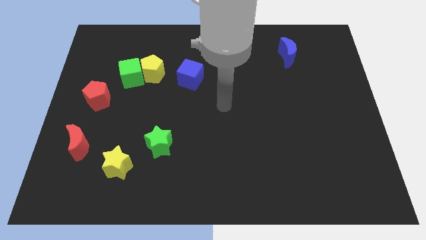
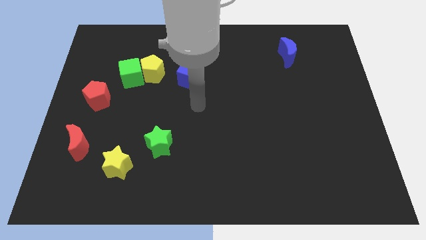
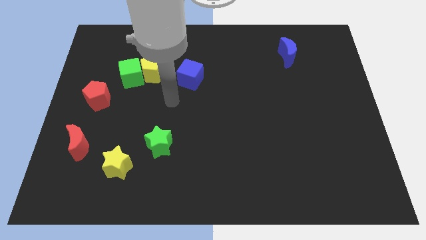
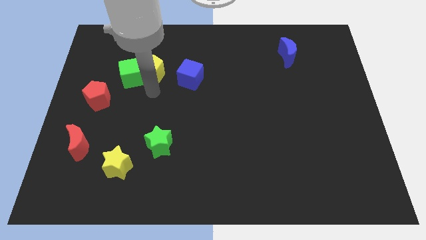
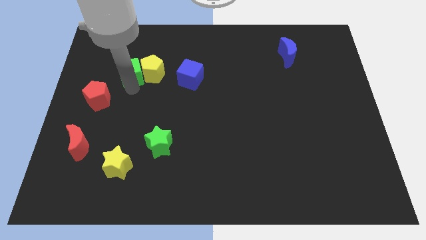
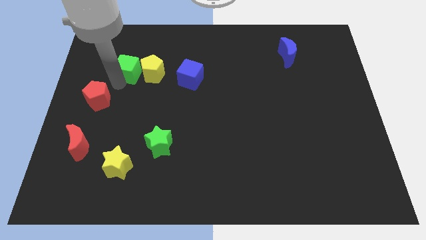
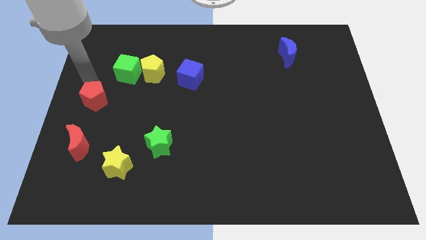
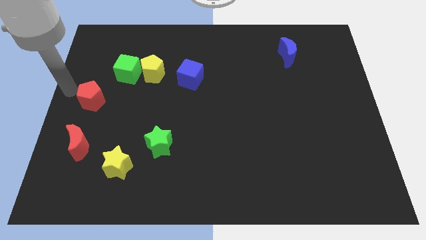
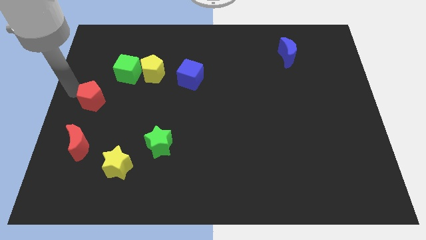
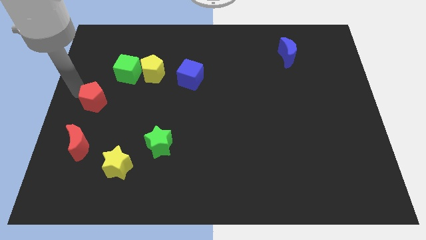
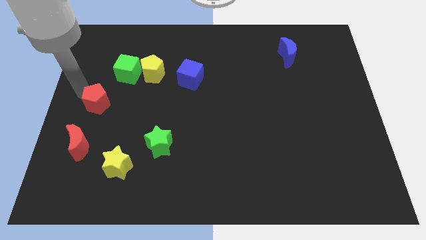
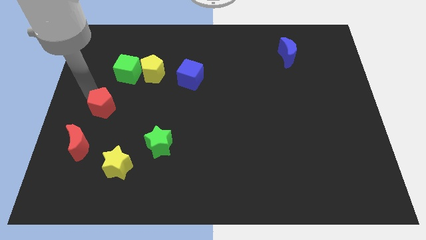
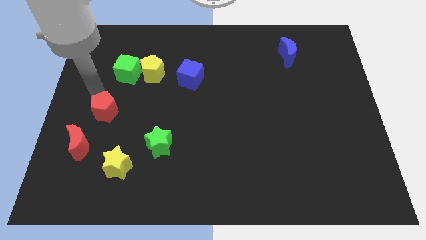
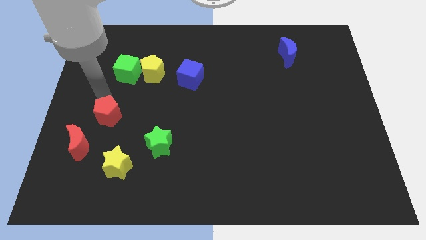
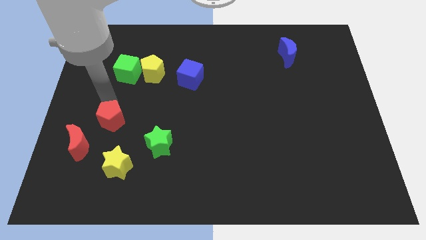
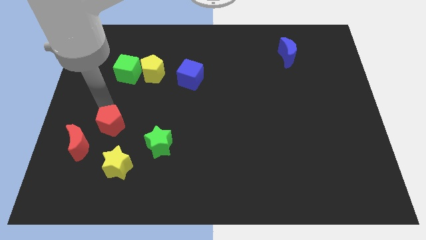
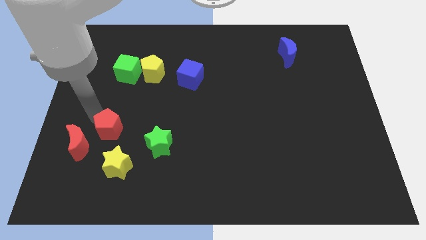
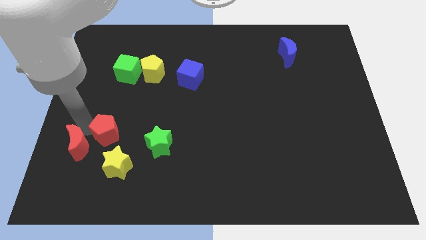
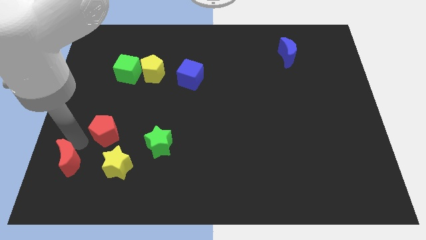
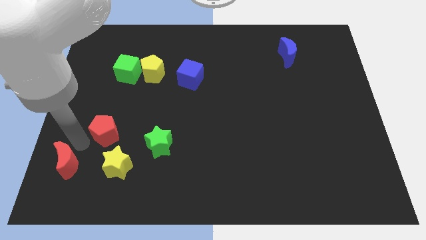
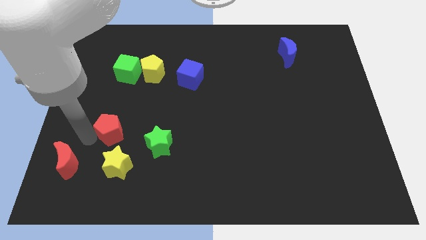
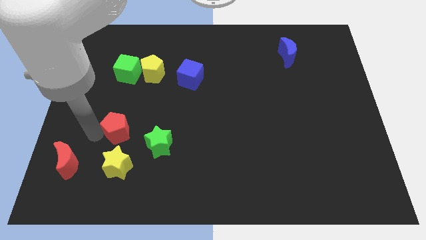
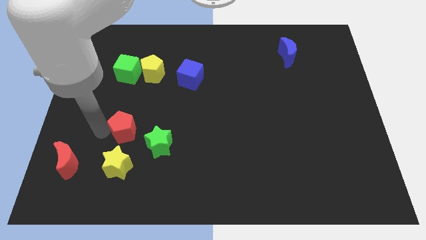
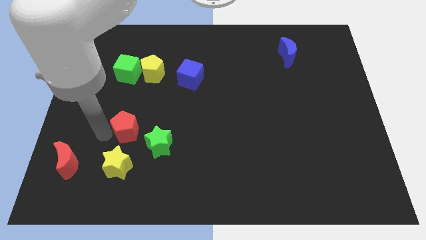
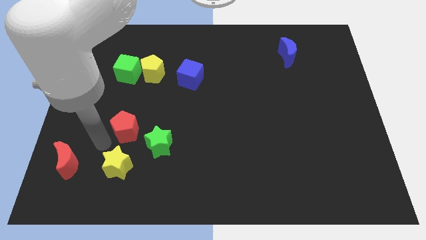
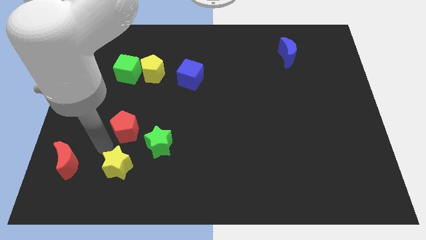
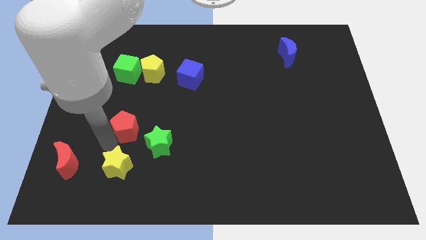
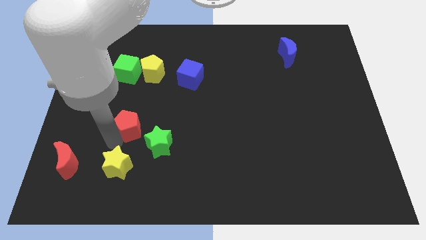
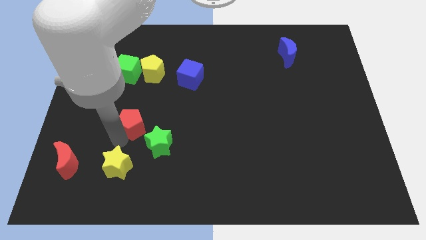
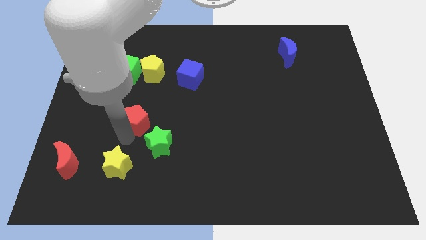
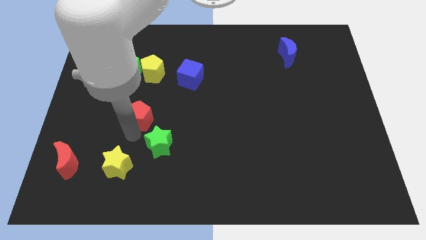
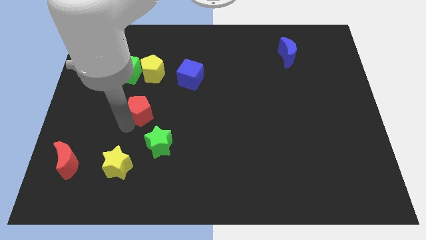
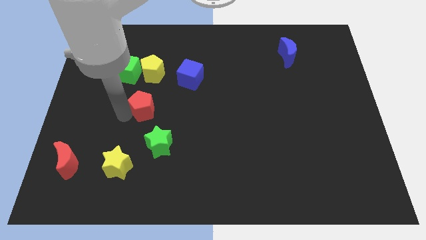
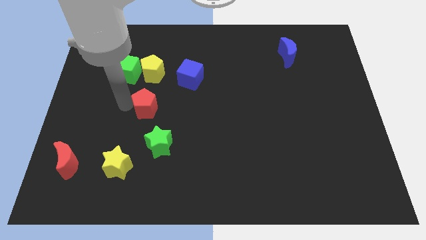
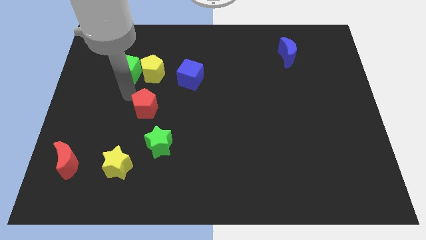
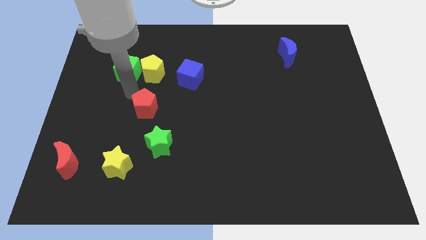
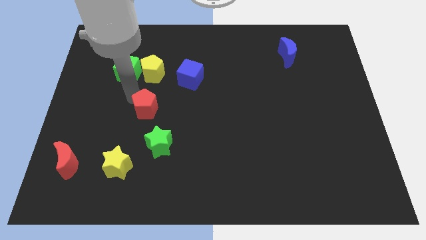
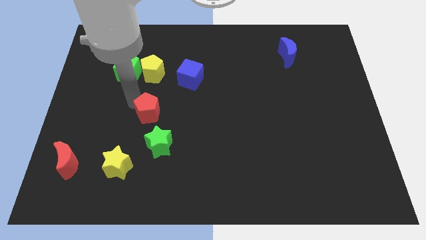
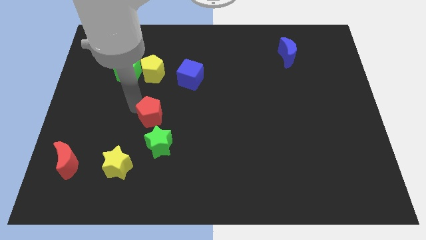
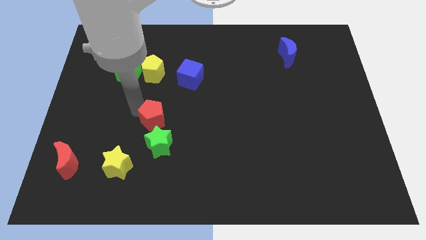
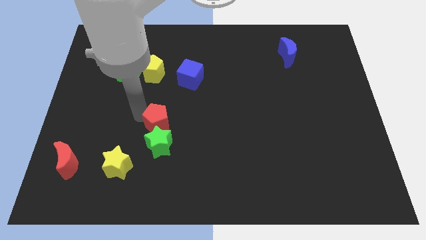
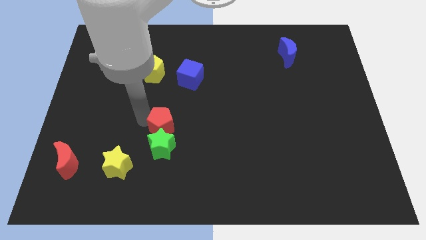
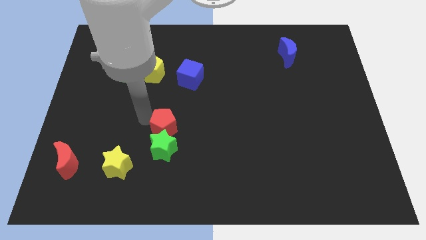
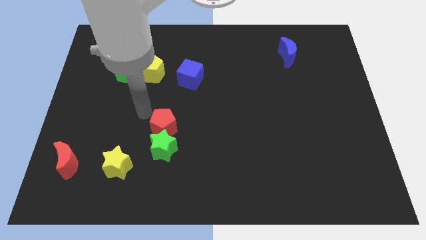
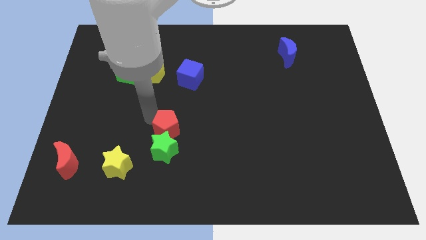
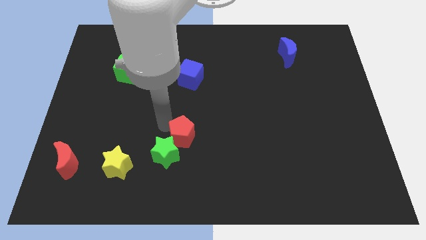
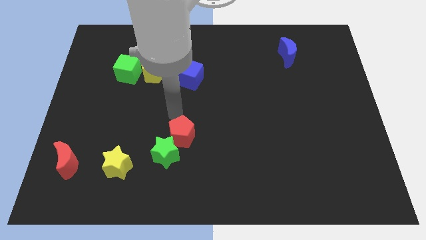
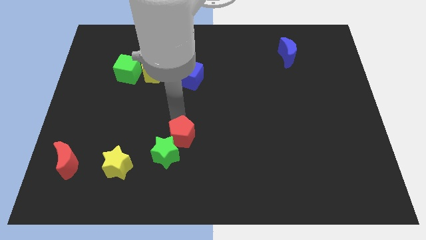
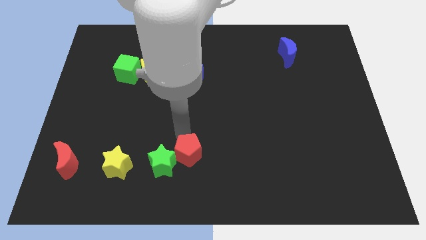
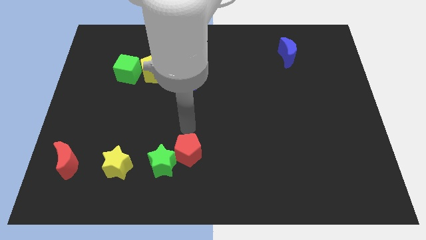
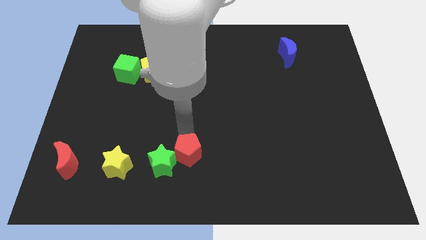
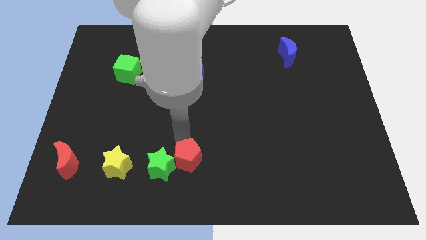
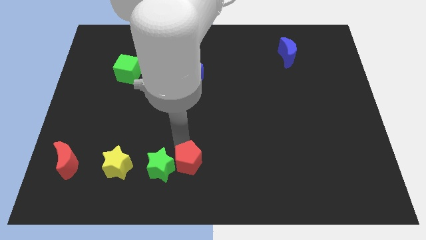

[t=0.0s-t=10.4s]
put the red pentagon to the bottom right side of the green star
